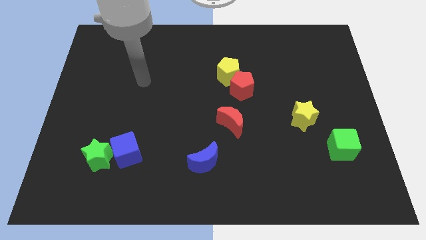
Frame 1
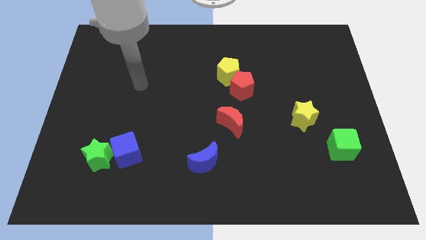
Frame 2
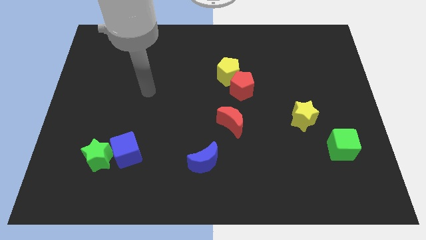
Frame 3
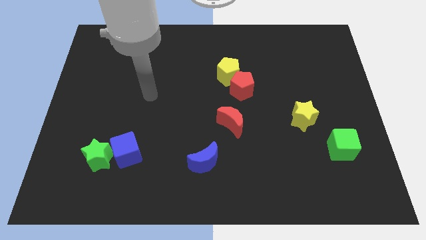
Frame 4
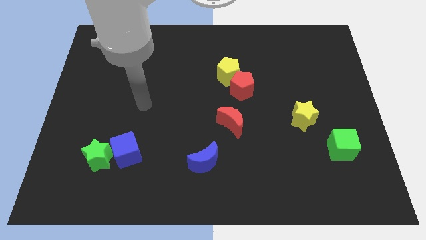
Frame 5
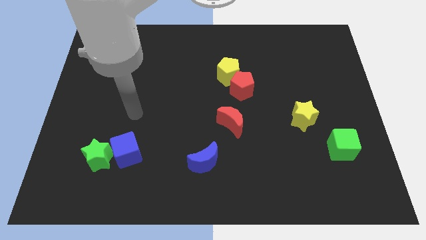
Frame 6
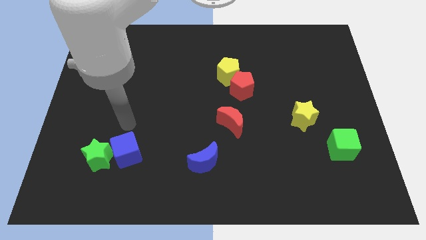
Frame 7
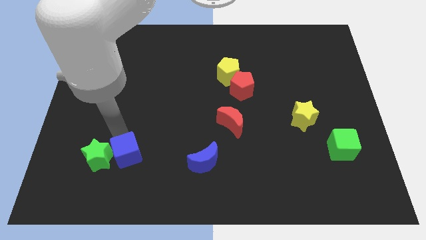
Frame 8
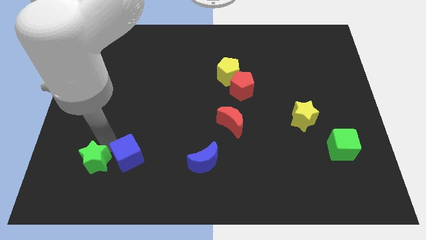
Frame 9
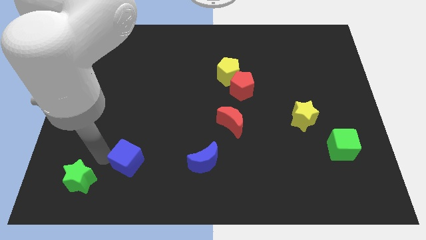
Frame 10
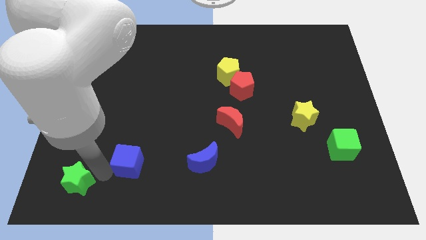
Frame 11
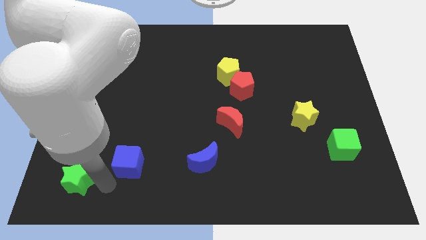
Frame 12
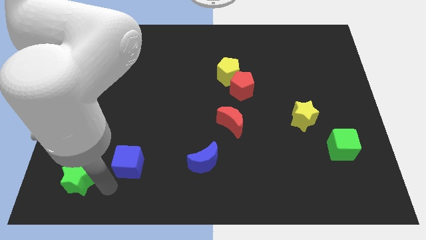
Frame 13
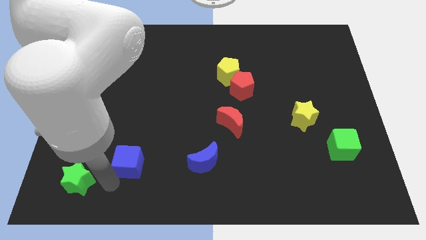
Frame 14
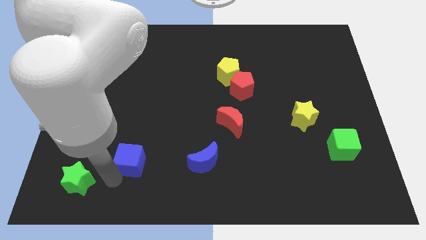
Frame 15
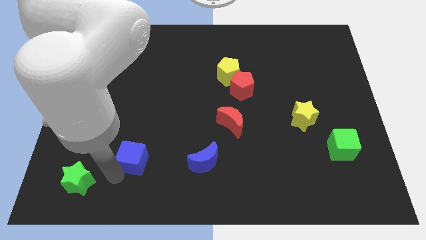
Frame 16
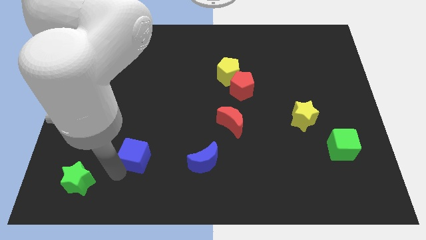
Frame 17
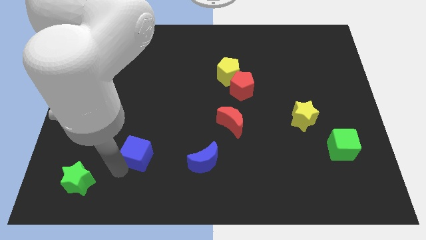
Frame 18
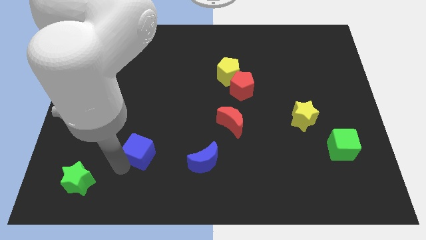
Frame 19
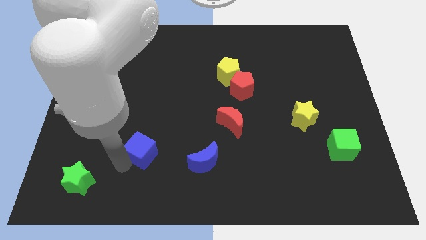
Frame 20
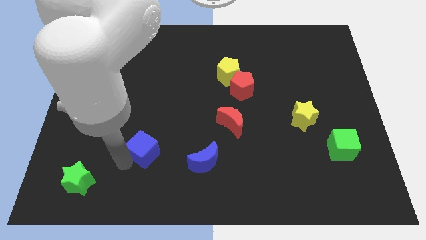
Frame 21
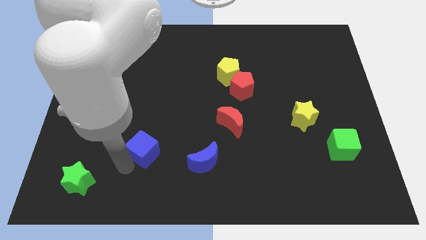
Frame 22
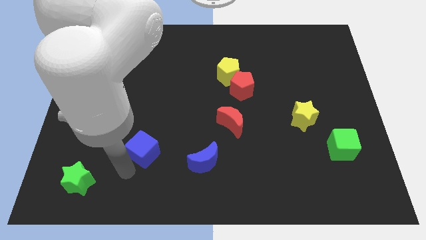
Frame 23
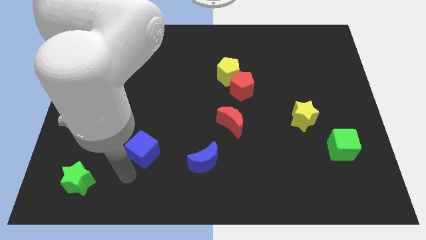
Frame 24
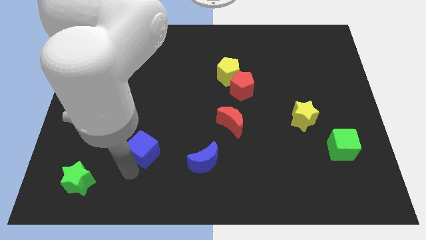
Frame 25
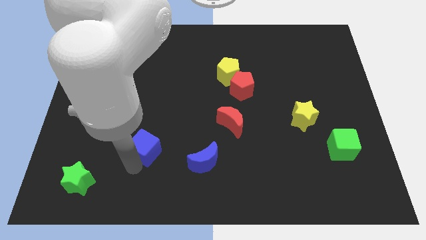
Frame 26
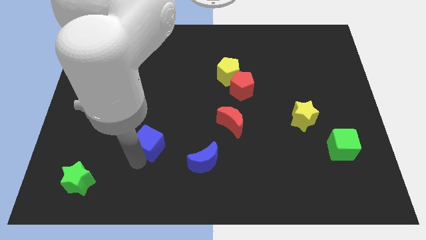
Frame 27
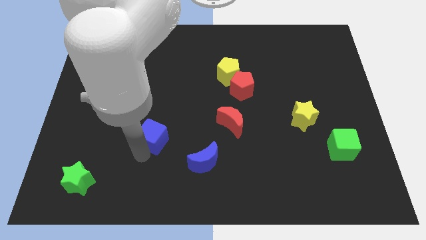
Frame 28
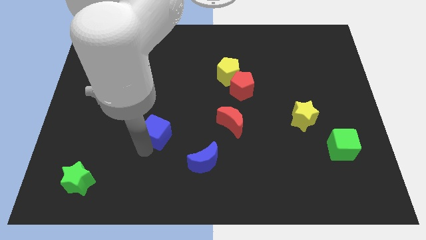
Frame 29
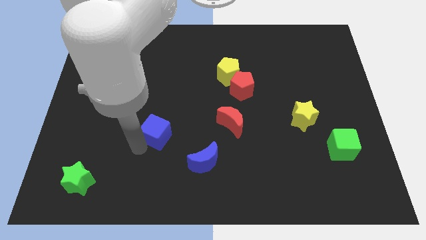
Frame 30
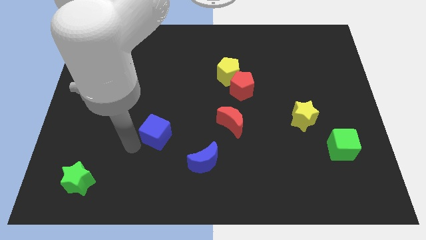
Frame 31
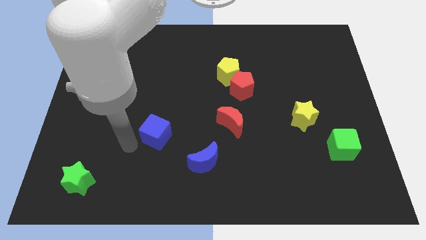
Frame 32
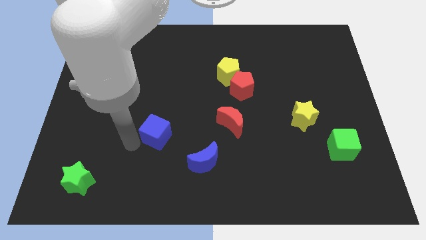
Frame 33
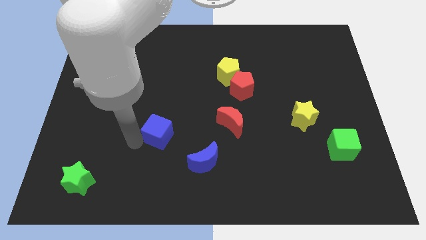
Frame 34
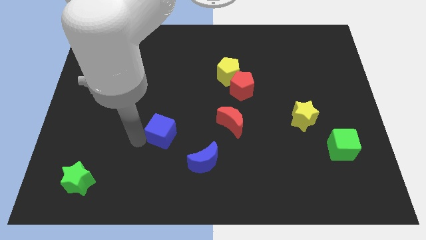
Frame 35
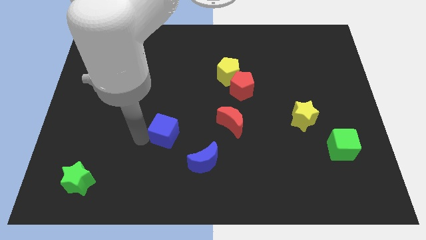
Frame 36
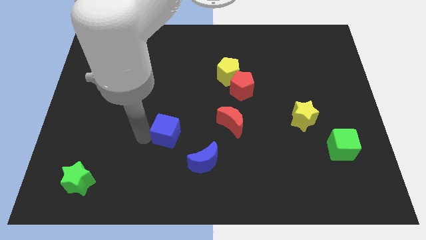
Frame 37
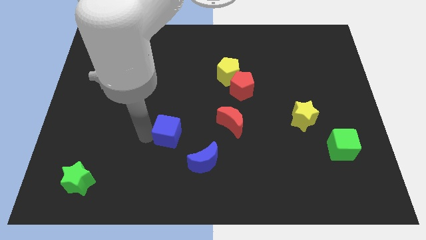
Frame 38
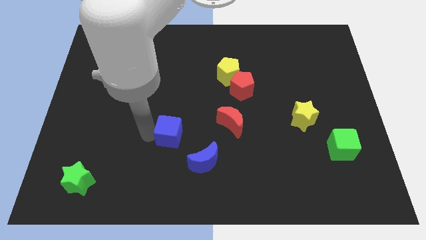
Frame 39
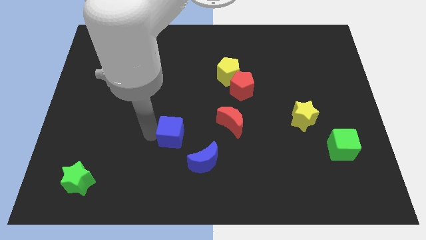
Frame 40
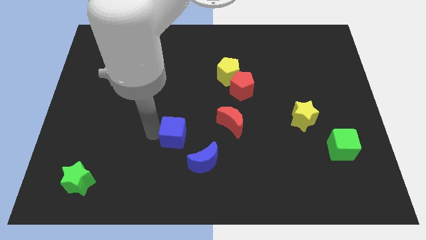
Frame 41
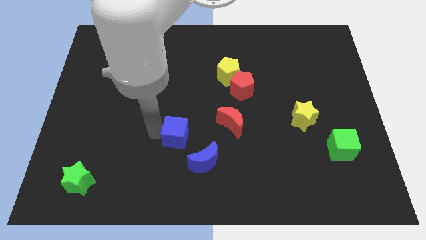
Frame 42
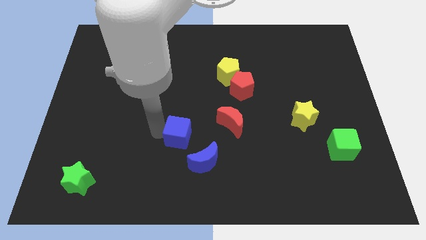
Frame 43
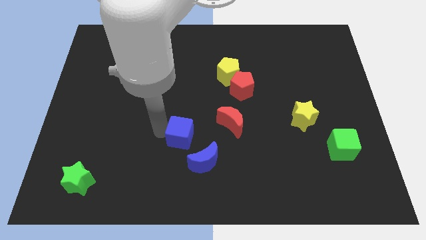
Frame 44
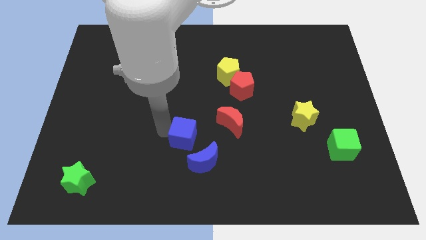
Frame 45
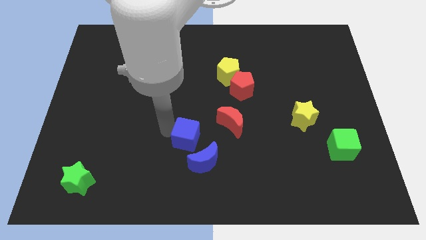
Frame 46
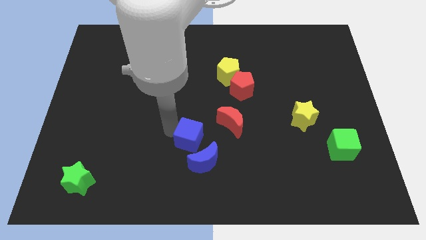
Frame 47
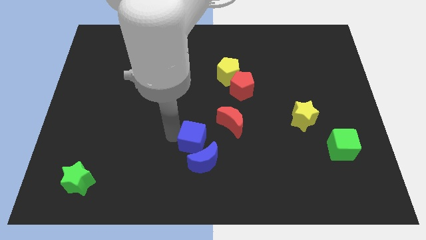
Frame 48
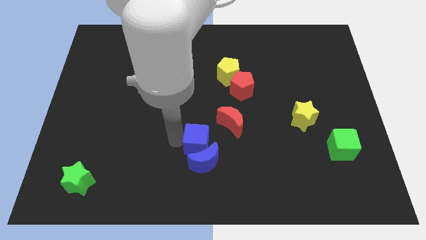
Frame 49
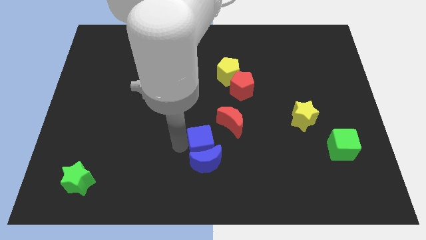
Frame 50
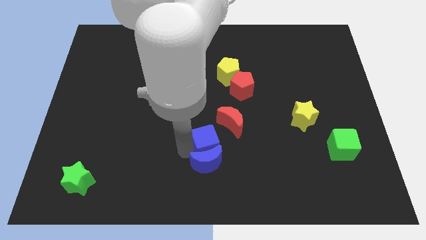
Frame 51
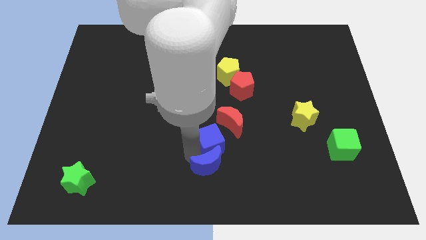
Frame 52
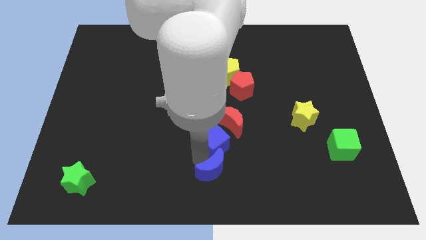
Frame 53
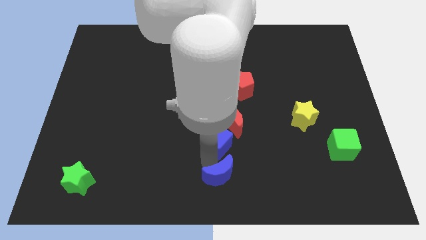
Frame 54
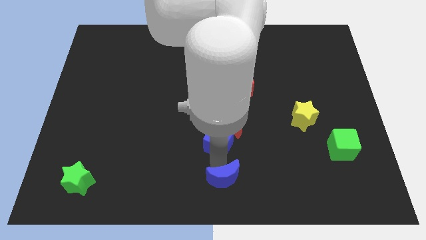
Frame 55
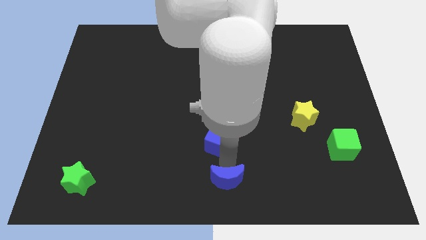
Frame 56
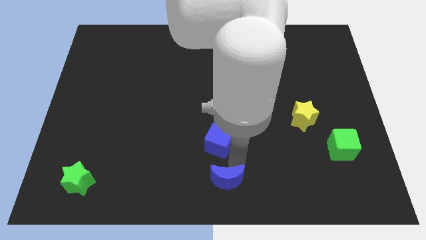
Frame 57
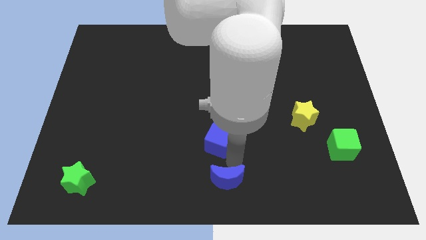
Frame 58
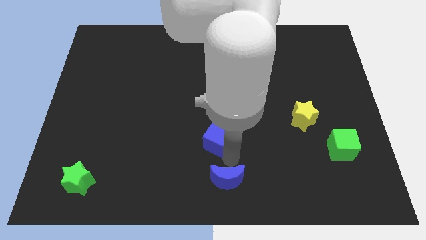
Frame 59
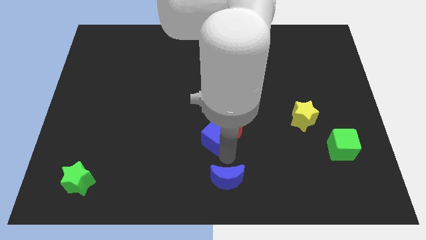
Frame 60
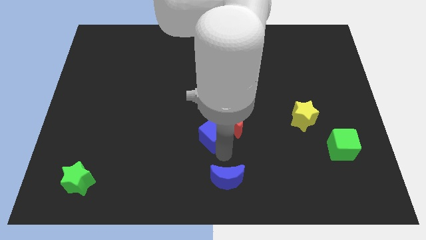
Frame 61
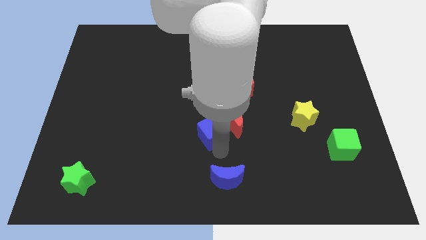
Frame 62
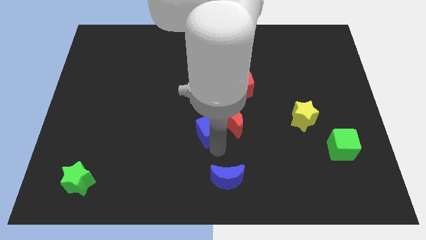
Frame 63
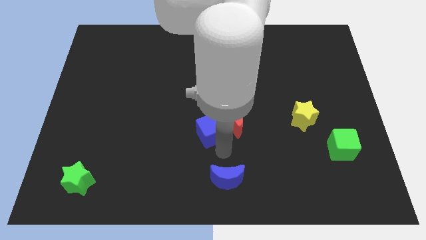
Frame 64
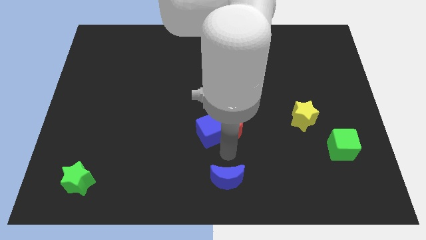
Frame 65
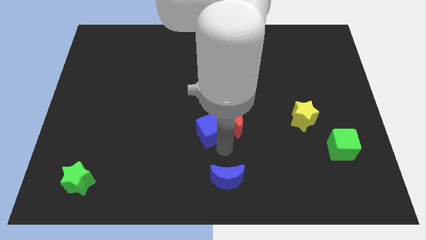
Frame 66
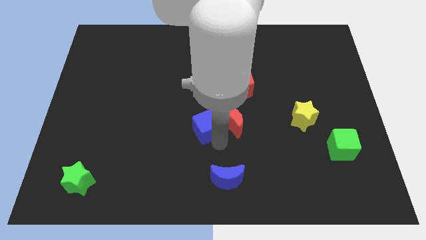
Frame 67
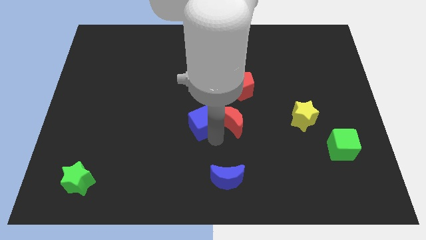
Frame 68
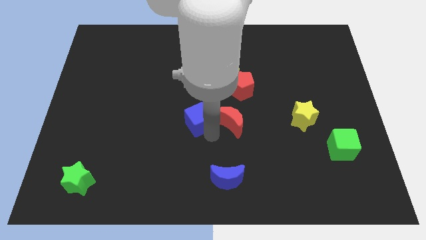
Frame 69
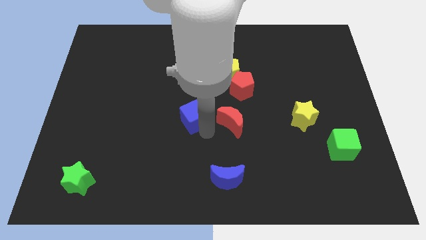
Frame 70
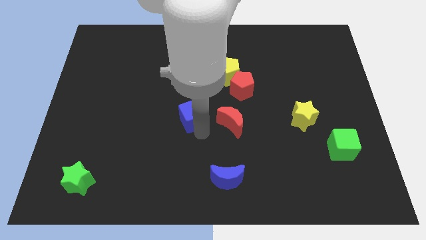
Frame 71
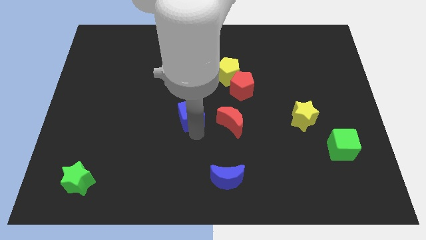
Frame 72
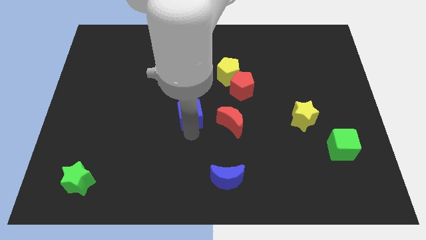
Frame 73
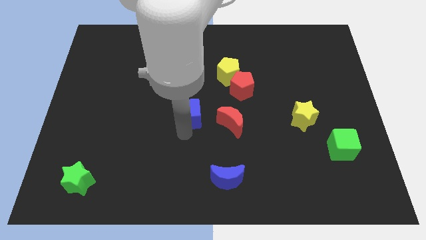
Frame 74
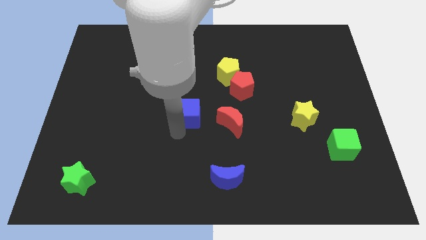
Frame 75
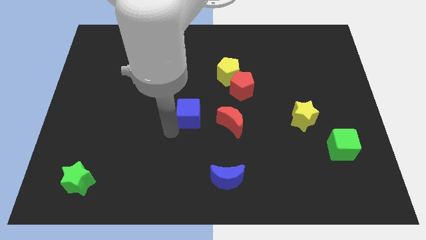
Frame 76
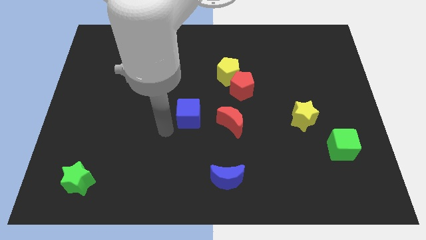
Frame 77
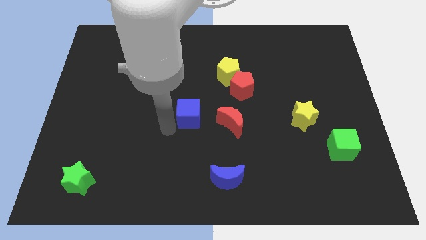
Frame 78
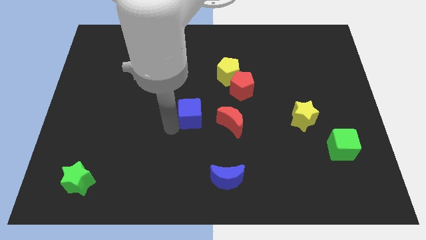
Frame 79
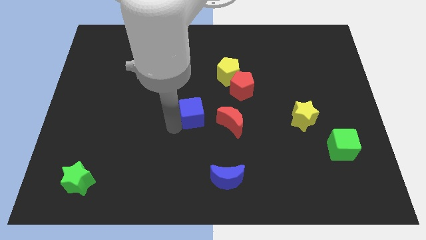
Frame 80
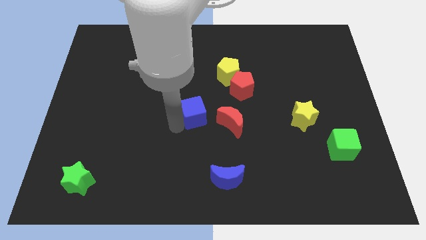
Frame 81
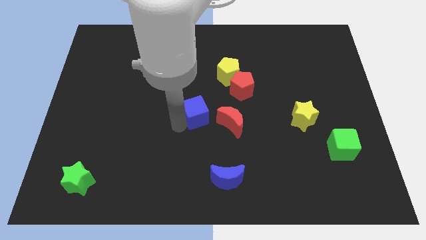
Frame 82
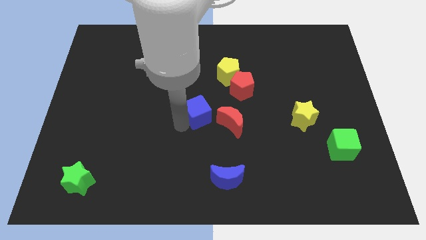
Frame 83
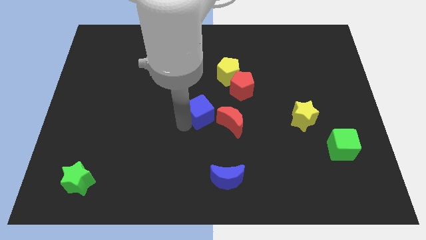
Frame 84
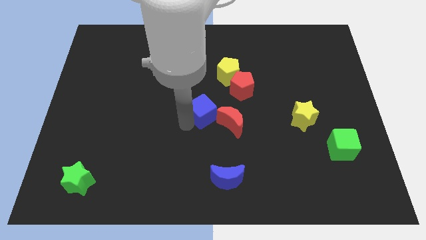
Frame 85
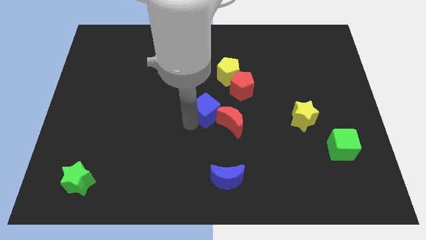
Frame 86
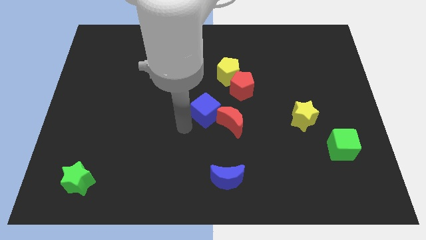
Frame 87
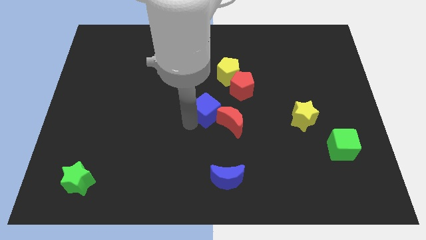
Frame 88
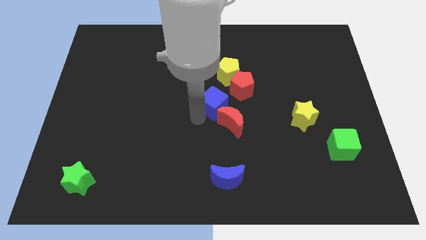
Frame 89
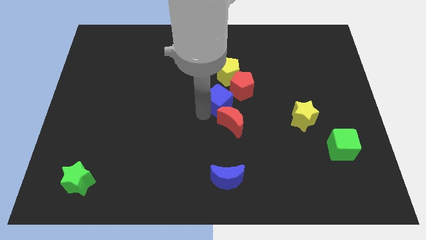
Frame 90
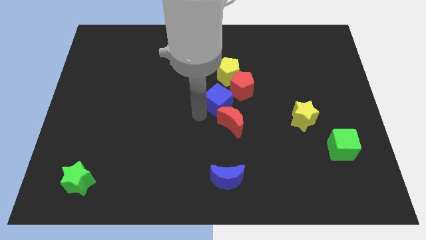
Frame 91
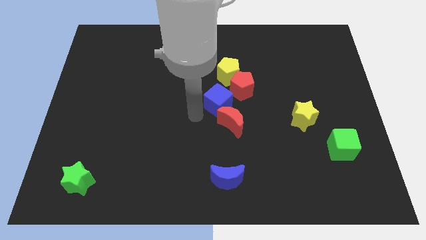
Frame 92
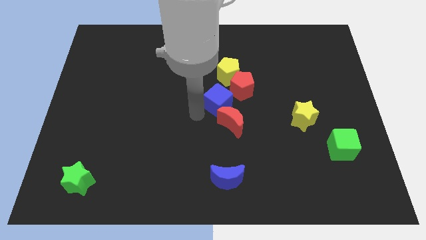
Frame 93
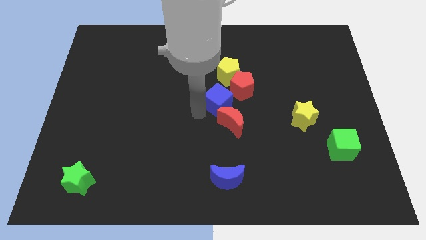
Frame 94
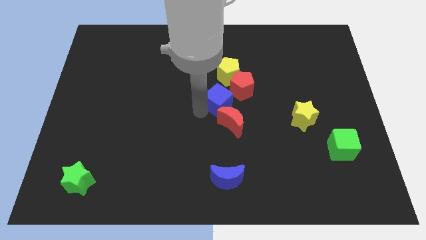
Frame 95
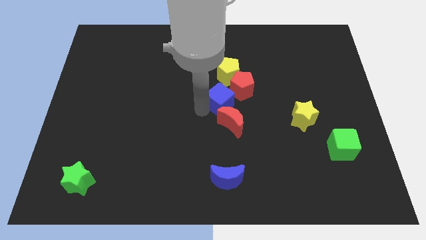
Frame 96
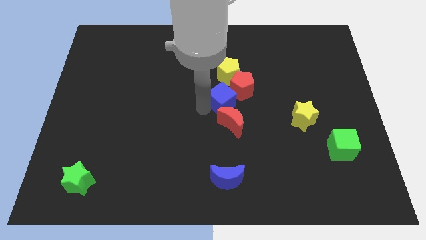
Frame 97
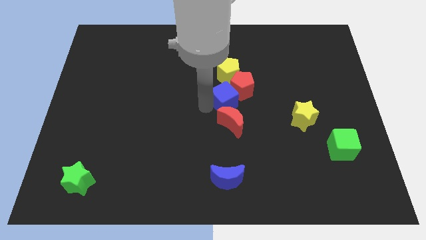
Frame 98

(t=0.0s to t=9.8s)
put the blue cube next to the red pentagon
